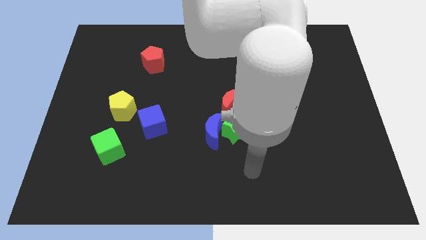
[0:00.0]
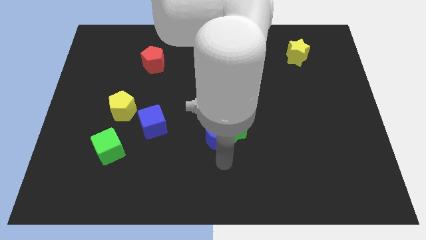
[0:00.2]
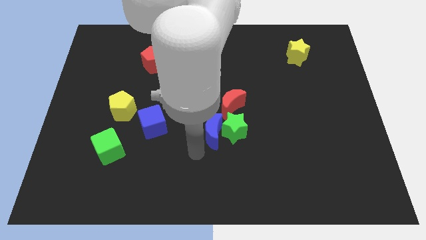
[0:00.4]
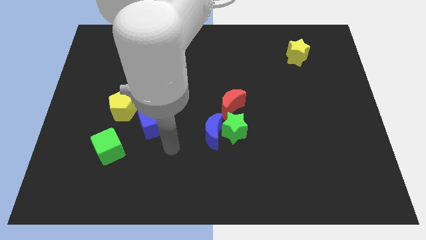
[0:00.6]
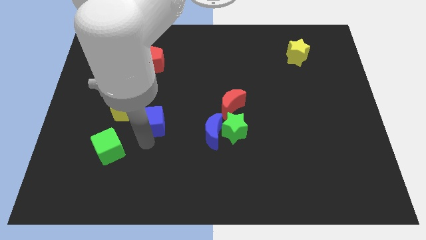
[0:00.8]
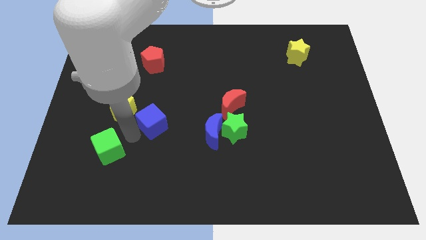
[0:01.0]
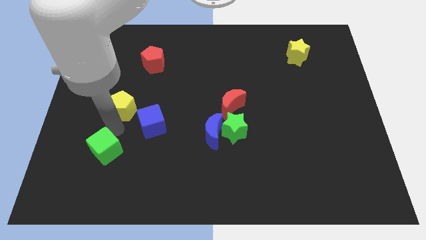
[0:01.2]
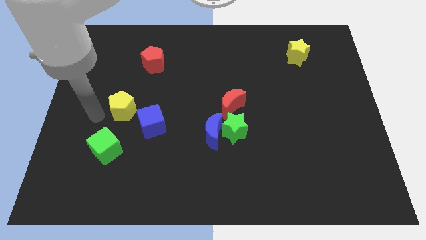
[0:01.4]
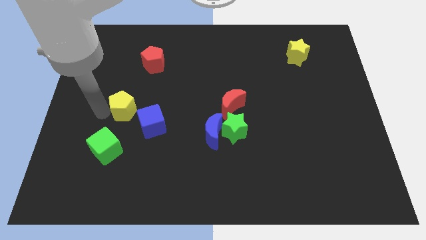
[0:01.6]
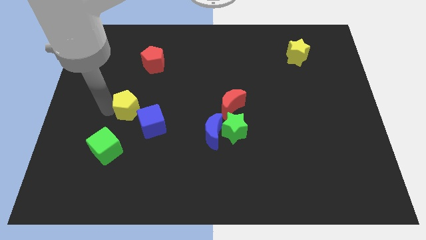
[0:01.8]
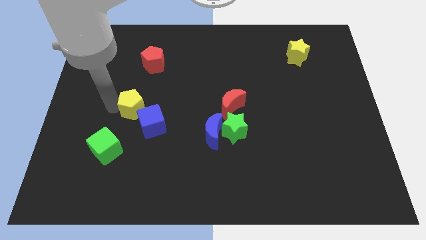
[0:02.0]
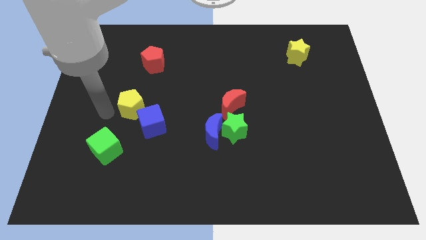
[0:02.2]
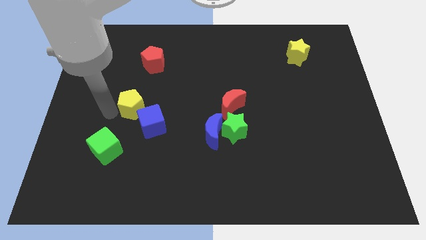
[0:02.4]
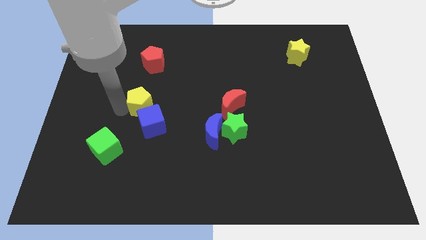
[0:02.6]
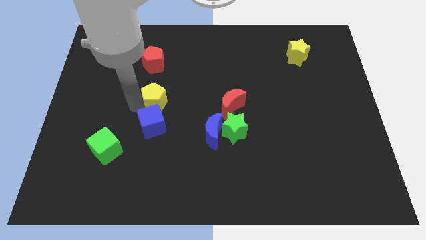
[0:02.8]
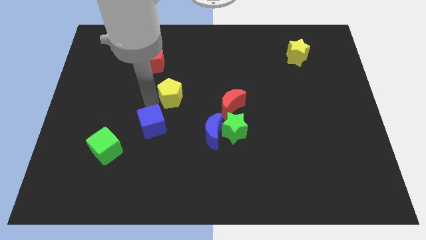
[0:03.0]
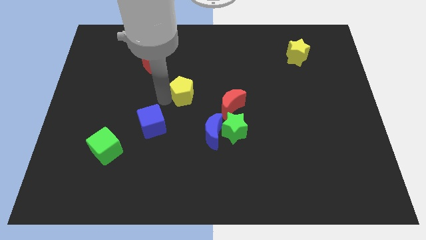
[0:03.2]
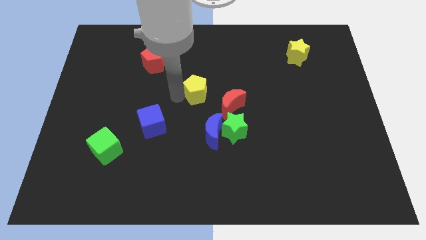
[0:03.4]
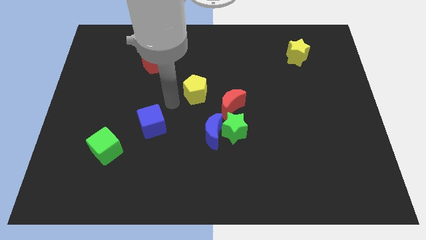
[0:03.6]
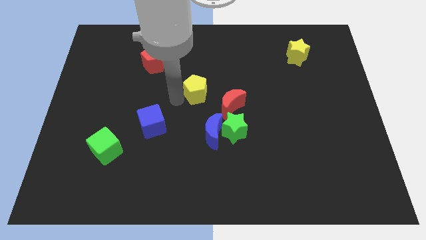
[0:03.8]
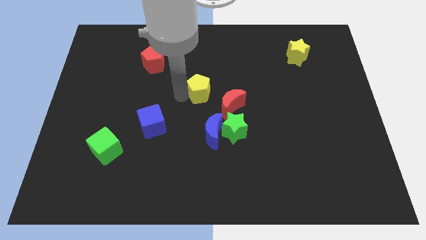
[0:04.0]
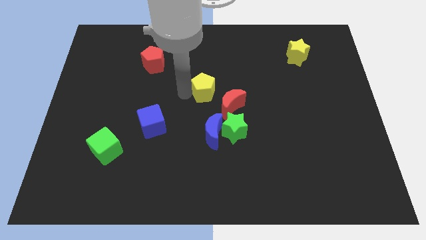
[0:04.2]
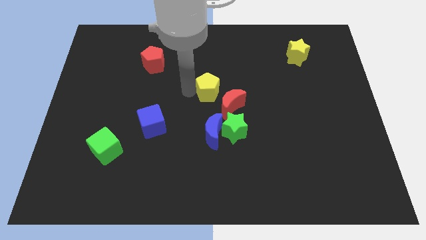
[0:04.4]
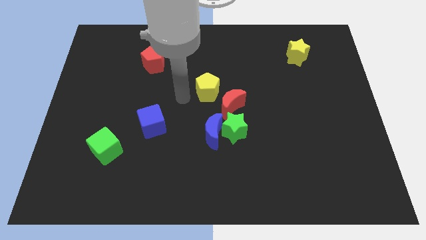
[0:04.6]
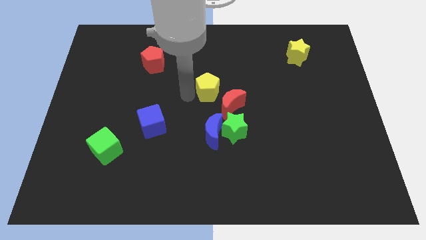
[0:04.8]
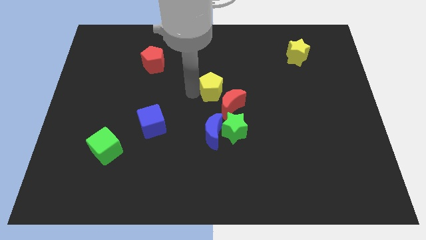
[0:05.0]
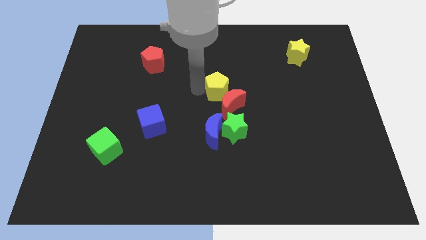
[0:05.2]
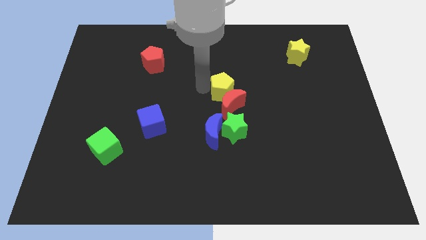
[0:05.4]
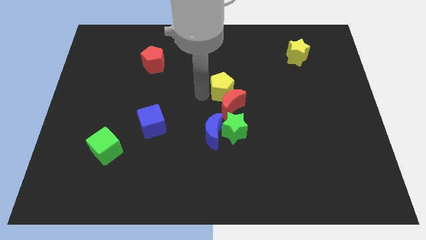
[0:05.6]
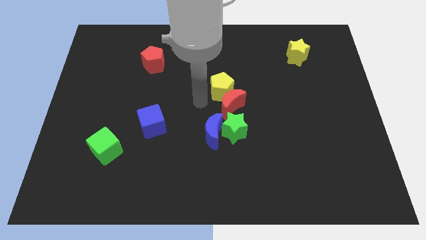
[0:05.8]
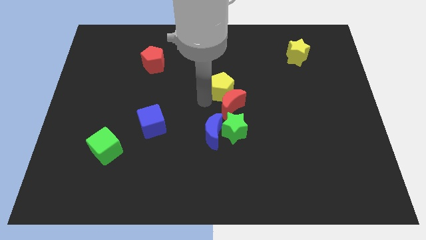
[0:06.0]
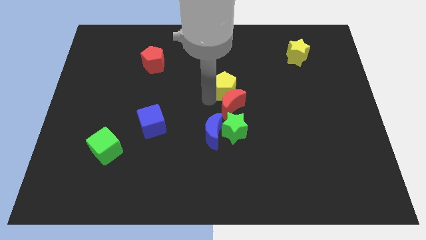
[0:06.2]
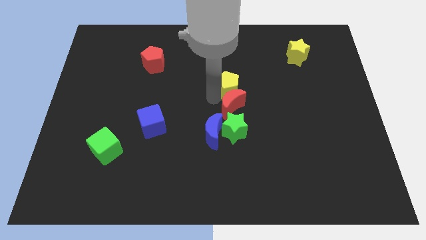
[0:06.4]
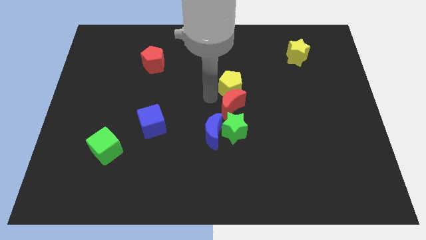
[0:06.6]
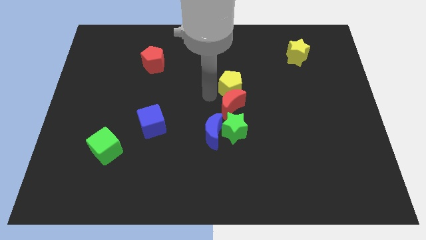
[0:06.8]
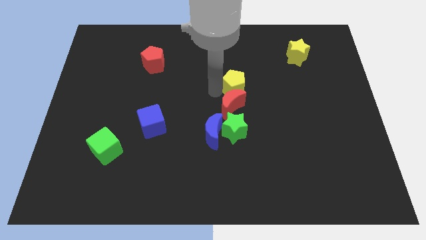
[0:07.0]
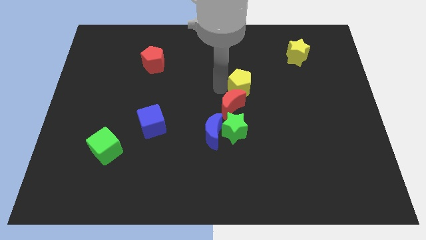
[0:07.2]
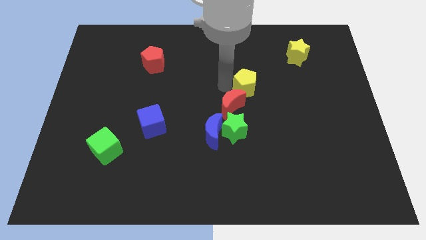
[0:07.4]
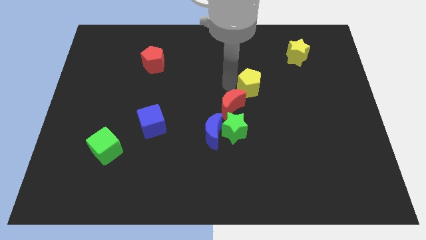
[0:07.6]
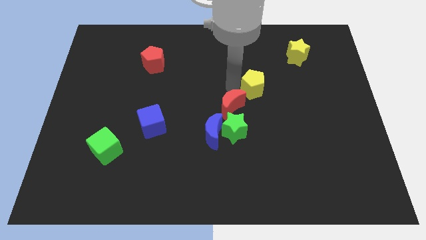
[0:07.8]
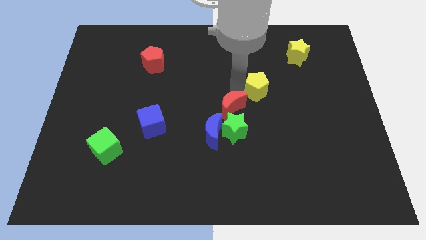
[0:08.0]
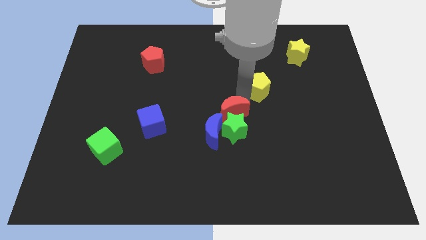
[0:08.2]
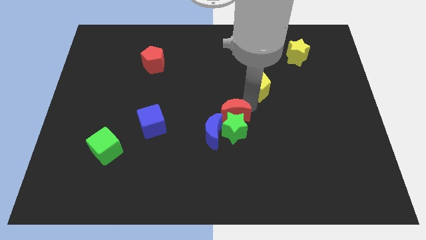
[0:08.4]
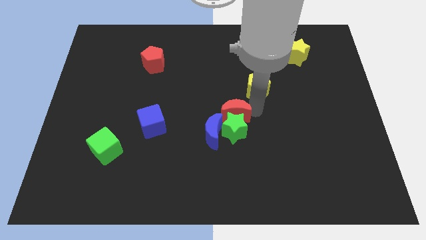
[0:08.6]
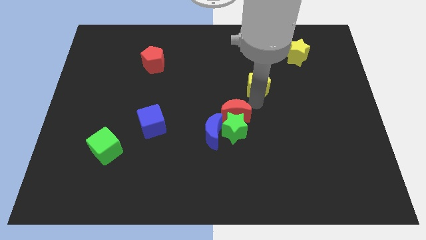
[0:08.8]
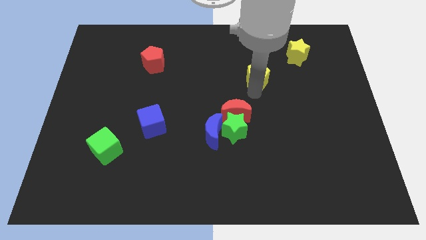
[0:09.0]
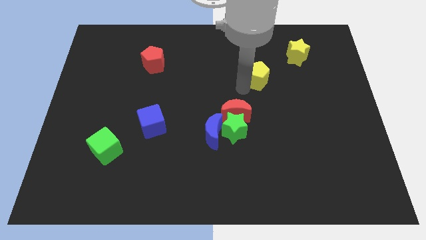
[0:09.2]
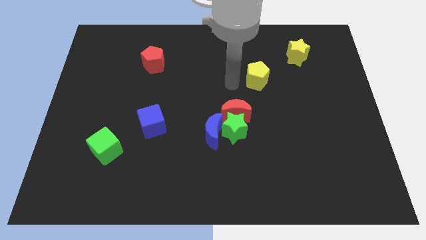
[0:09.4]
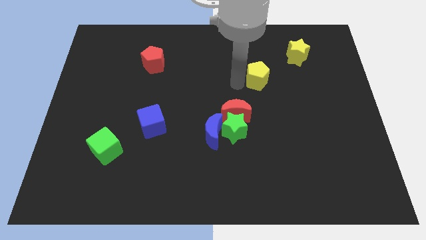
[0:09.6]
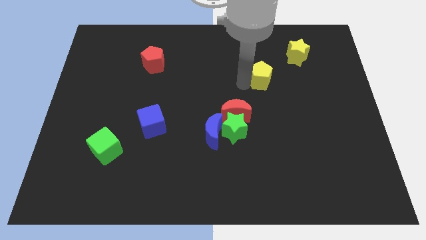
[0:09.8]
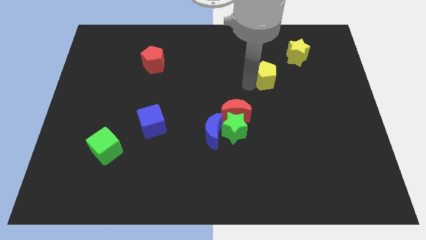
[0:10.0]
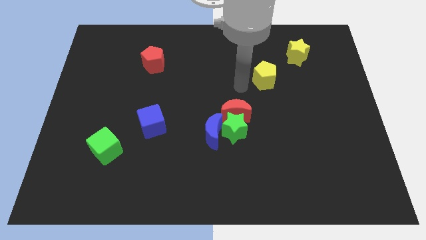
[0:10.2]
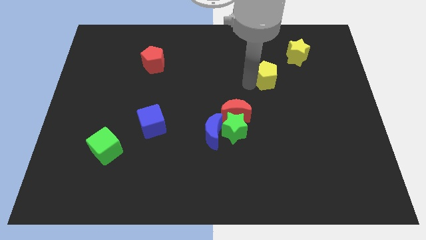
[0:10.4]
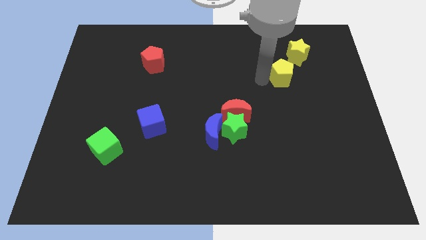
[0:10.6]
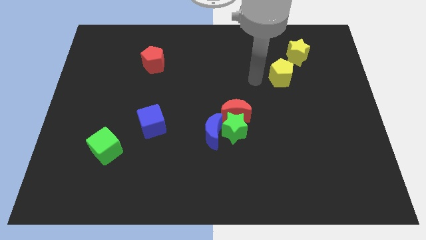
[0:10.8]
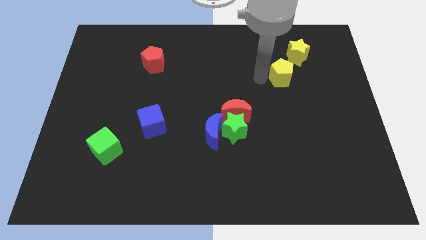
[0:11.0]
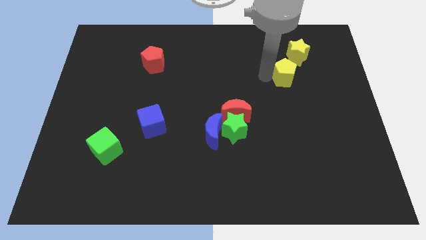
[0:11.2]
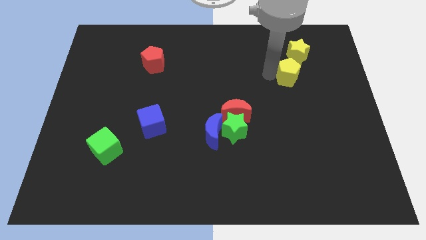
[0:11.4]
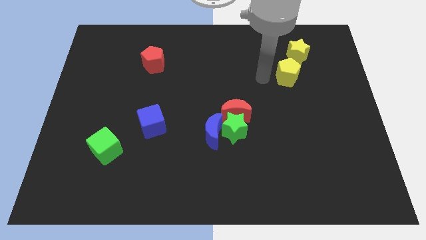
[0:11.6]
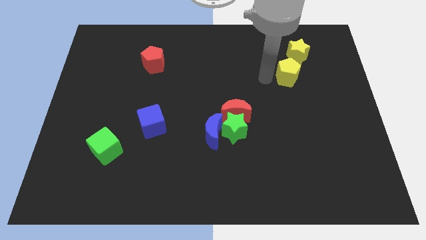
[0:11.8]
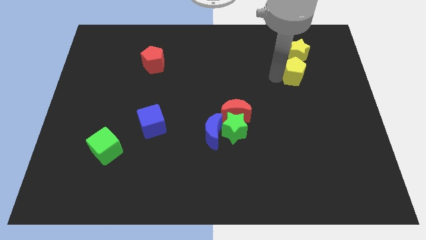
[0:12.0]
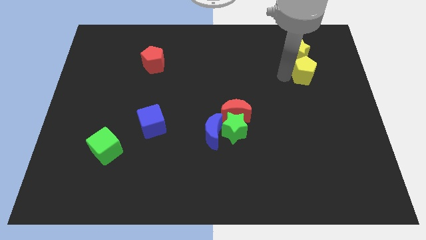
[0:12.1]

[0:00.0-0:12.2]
move the yellow pentagon to the bottom right of the yellow star

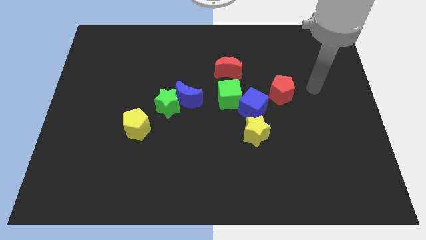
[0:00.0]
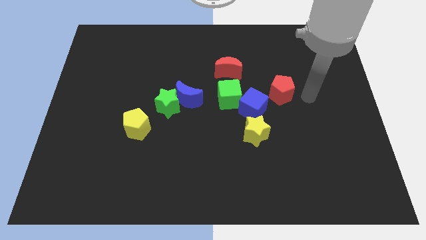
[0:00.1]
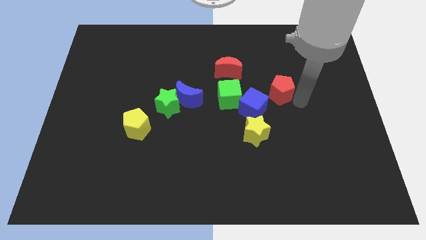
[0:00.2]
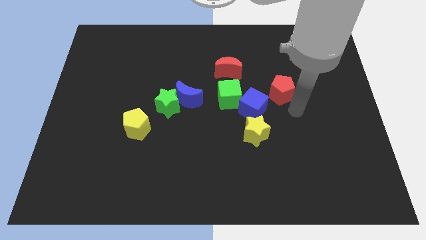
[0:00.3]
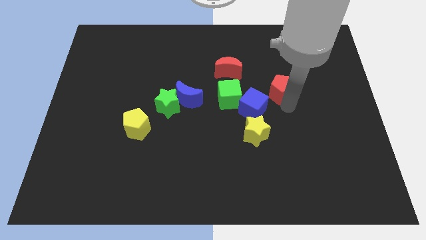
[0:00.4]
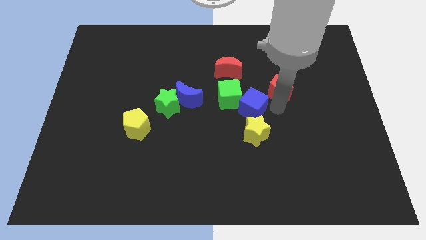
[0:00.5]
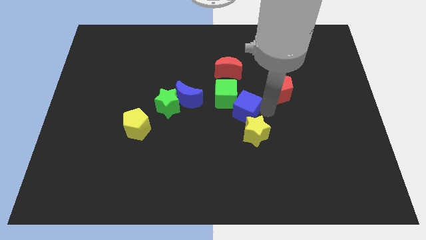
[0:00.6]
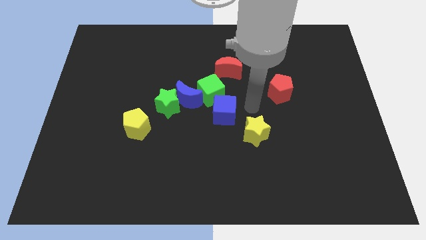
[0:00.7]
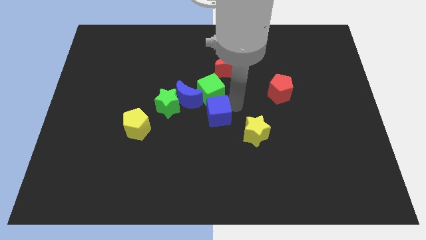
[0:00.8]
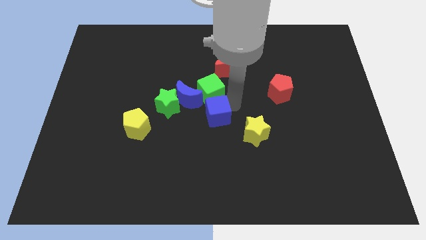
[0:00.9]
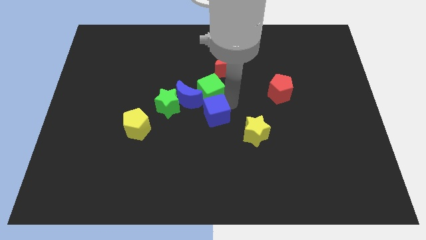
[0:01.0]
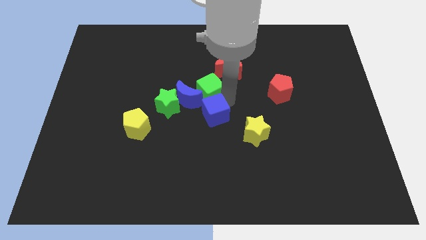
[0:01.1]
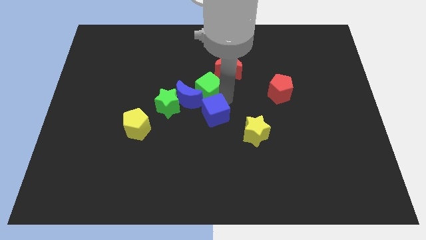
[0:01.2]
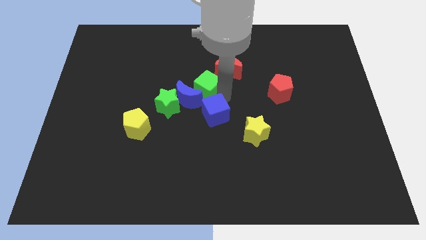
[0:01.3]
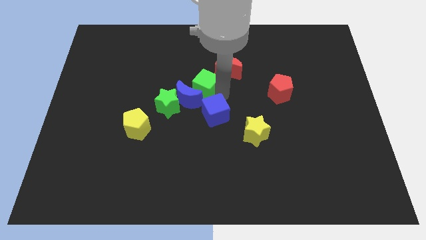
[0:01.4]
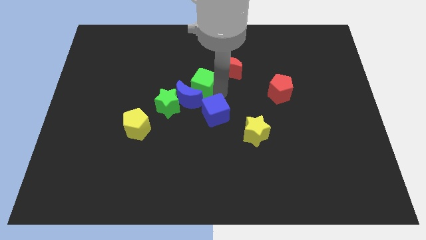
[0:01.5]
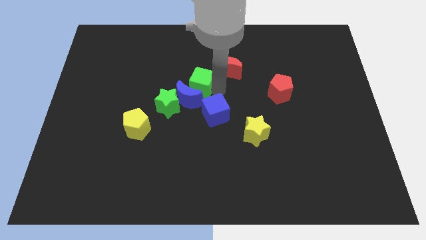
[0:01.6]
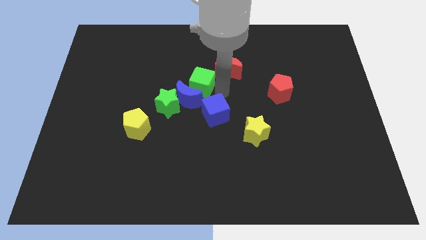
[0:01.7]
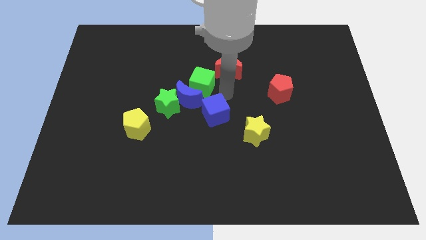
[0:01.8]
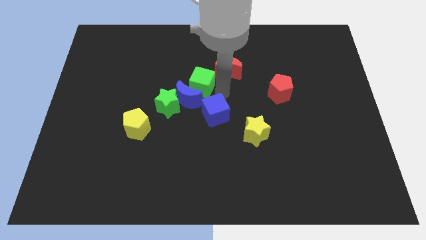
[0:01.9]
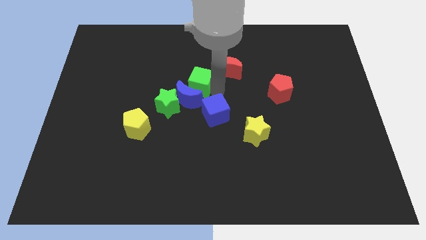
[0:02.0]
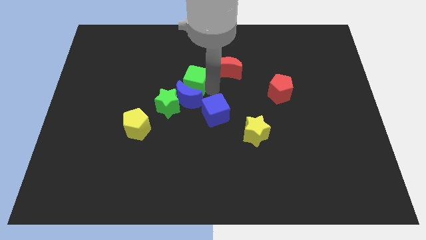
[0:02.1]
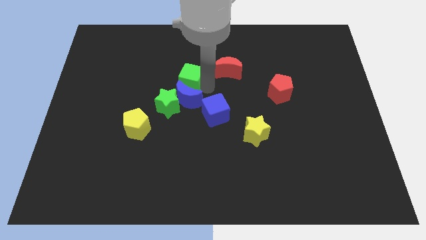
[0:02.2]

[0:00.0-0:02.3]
move the green cube above the green star
